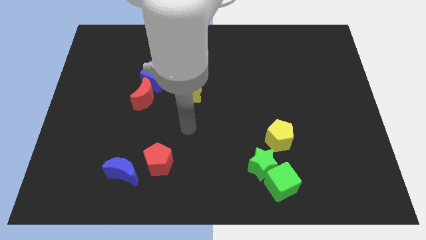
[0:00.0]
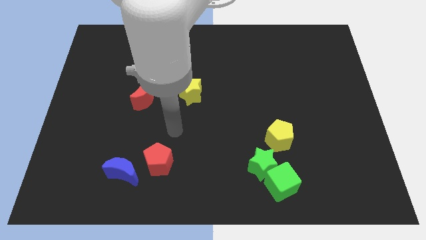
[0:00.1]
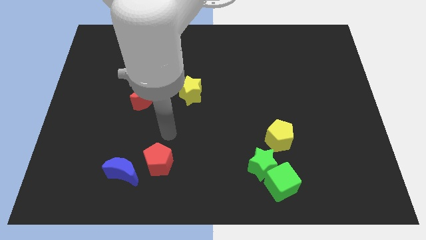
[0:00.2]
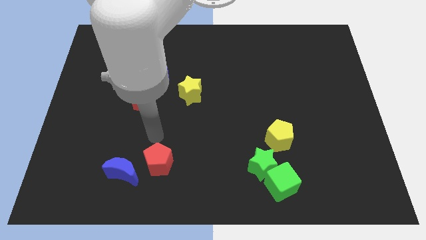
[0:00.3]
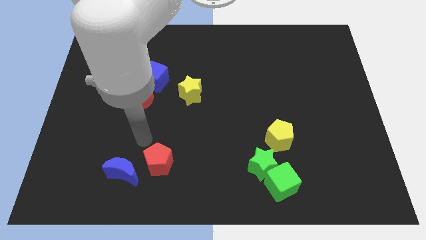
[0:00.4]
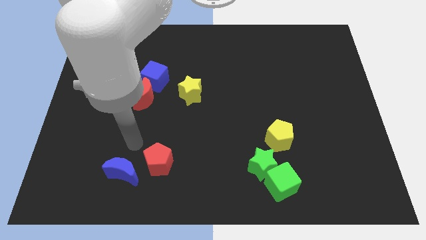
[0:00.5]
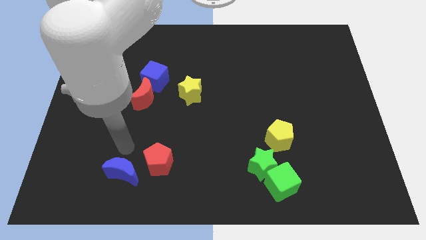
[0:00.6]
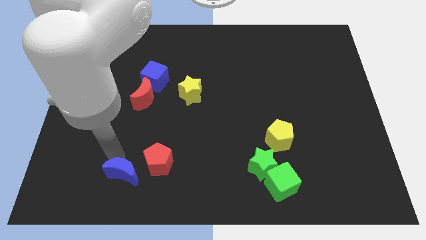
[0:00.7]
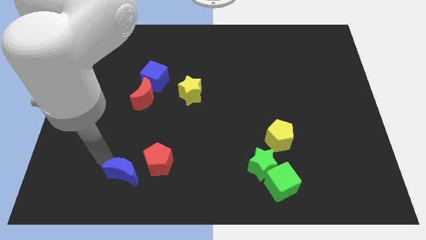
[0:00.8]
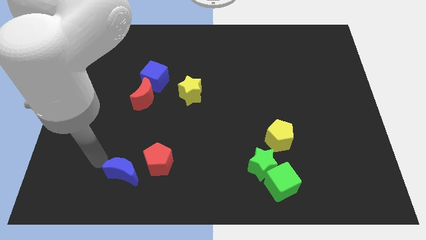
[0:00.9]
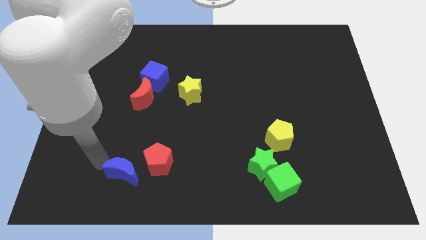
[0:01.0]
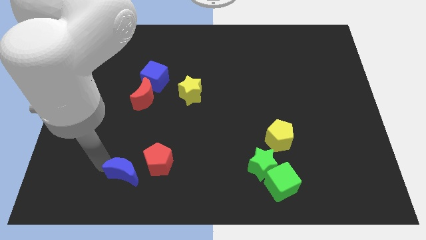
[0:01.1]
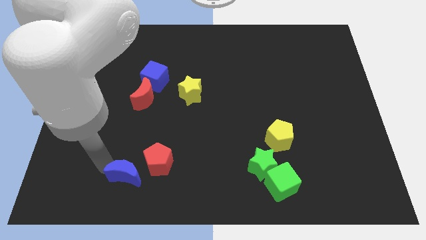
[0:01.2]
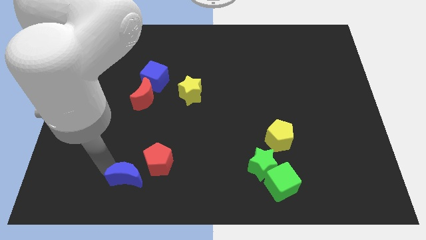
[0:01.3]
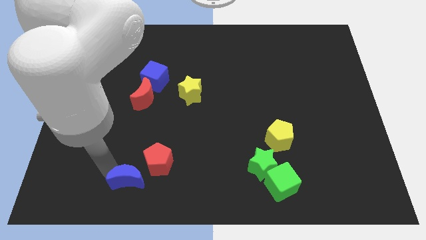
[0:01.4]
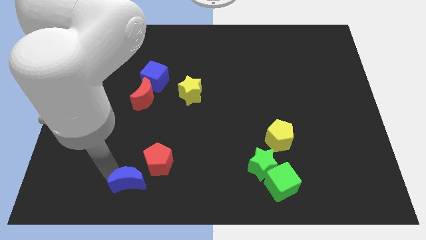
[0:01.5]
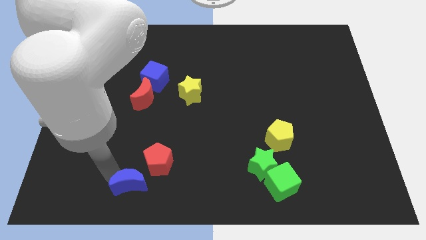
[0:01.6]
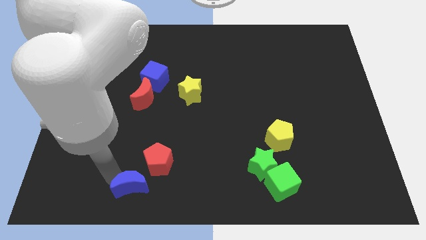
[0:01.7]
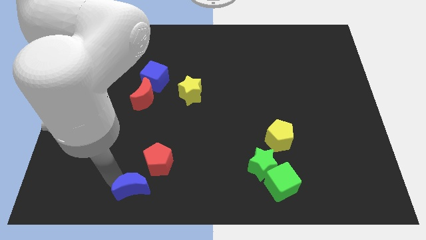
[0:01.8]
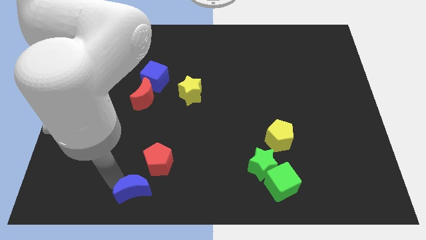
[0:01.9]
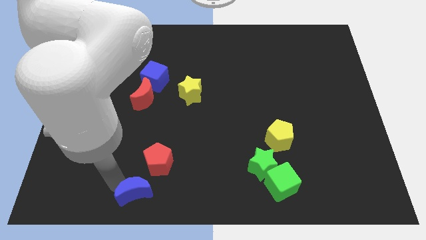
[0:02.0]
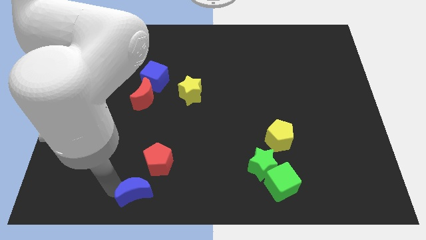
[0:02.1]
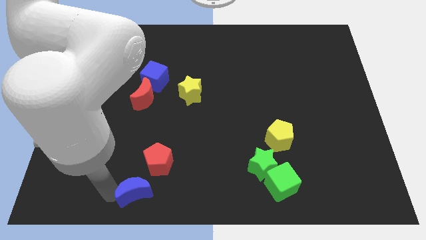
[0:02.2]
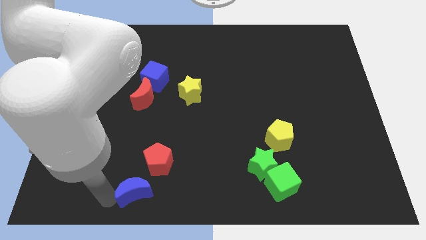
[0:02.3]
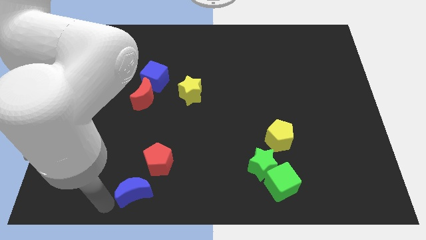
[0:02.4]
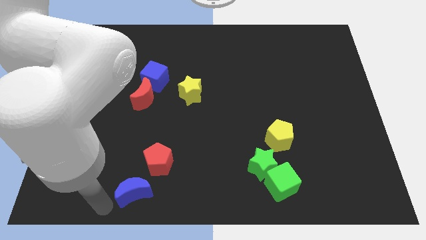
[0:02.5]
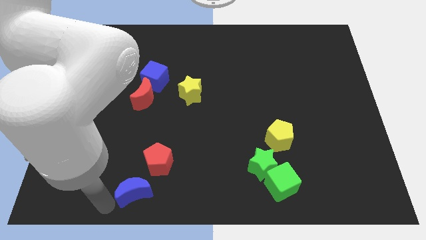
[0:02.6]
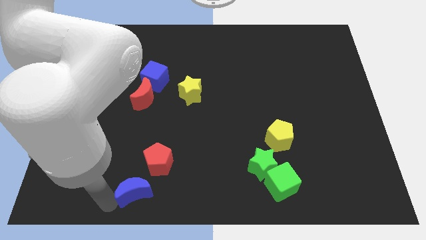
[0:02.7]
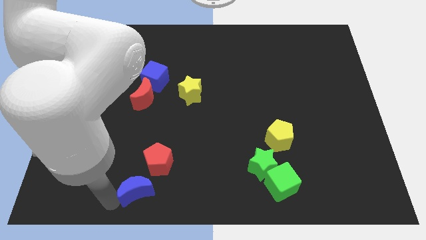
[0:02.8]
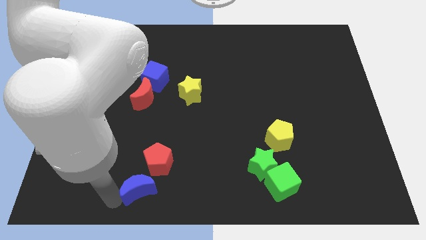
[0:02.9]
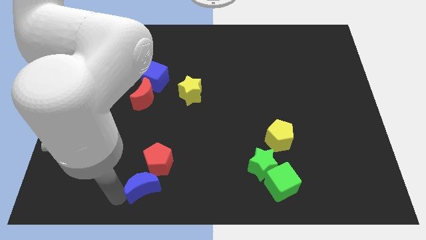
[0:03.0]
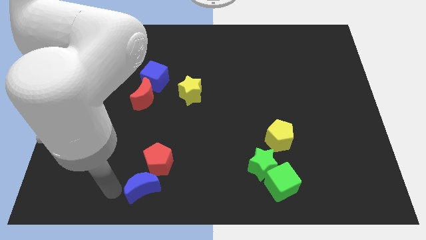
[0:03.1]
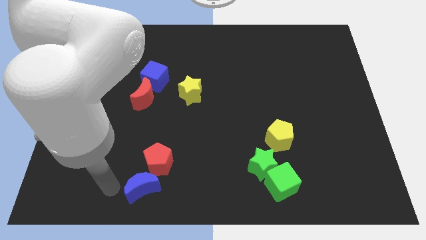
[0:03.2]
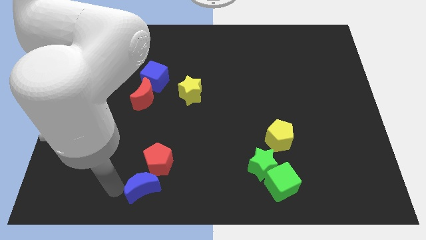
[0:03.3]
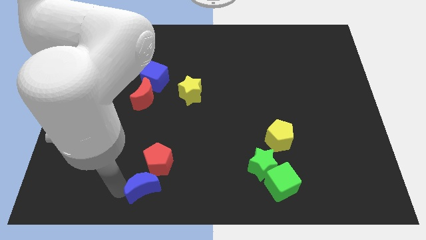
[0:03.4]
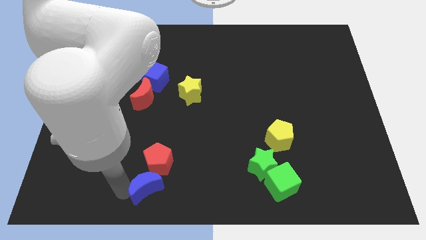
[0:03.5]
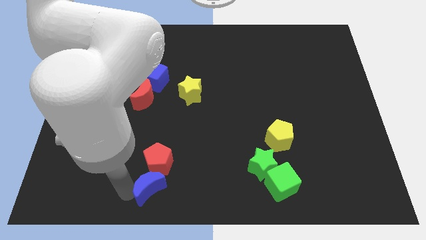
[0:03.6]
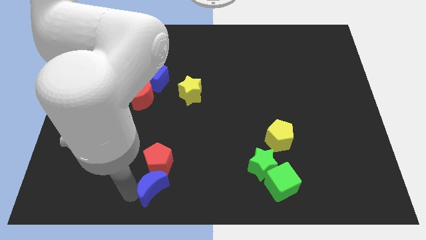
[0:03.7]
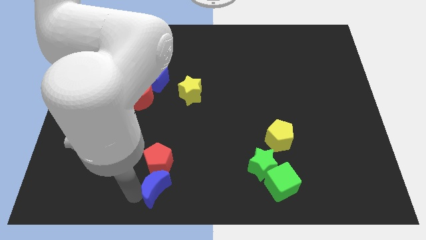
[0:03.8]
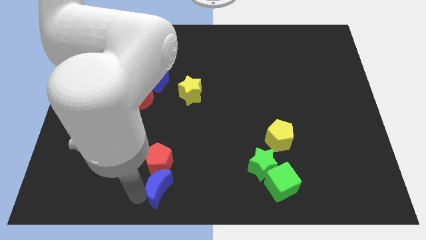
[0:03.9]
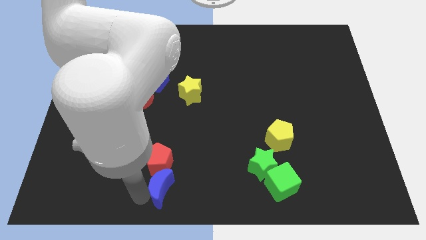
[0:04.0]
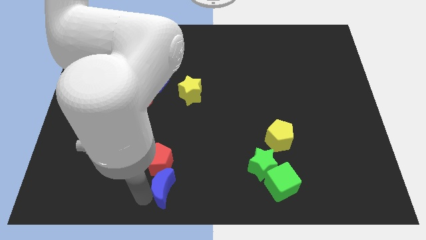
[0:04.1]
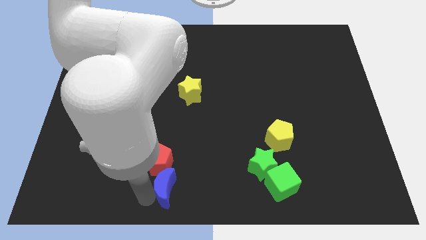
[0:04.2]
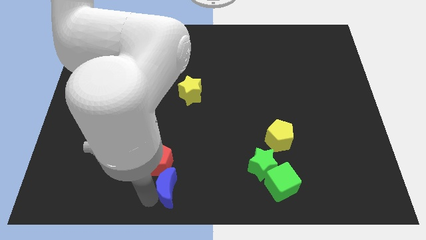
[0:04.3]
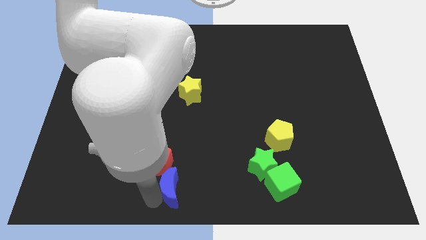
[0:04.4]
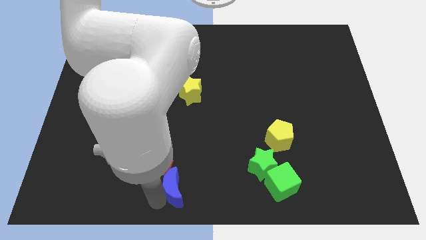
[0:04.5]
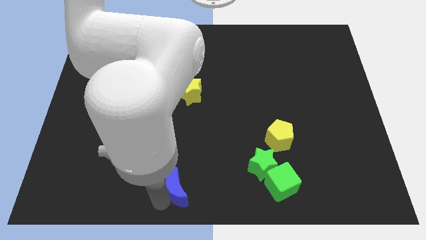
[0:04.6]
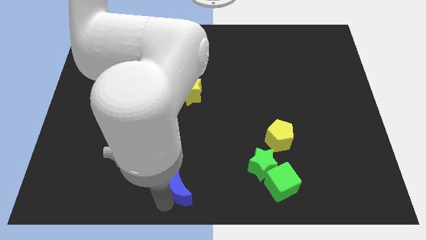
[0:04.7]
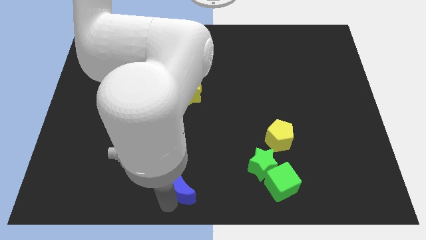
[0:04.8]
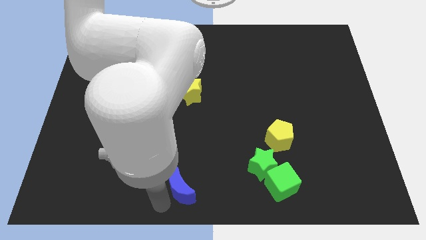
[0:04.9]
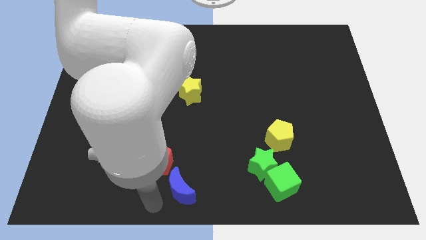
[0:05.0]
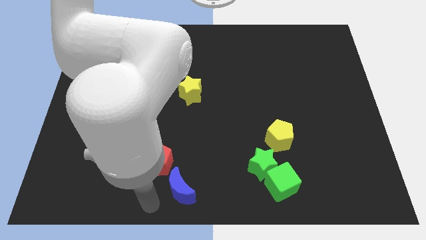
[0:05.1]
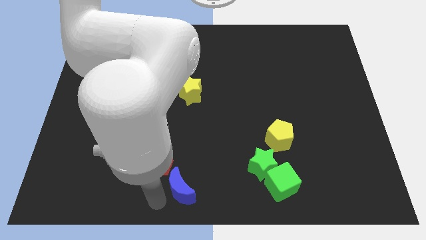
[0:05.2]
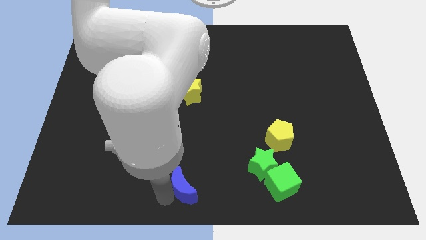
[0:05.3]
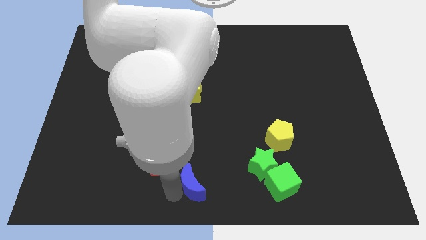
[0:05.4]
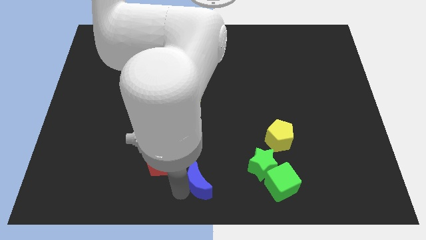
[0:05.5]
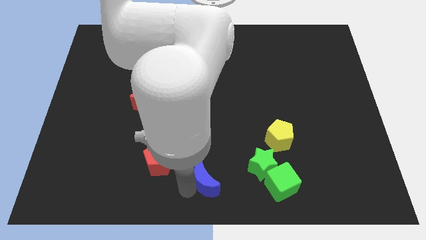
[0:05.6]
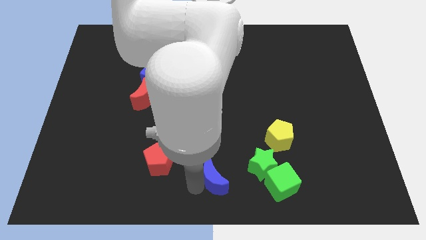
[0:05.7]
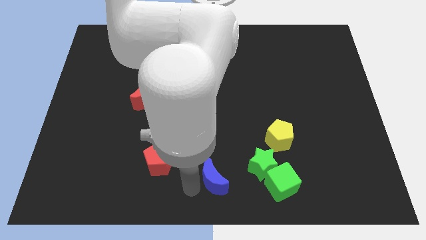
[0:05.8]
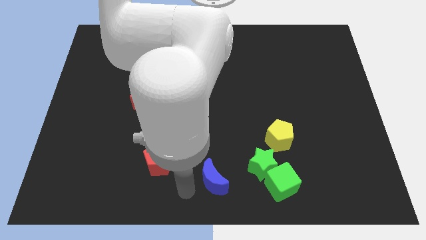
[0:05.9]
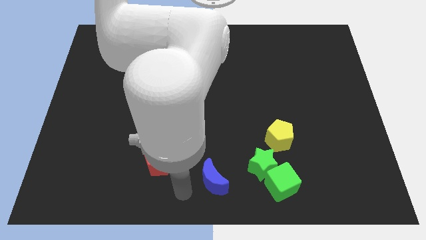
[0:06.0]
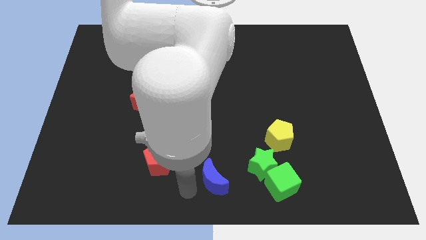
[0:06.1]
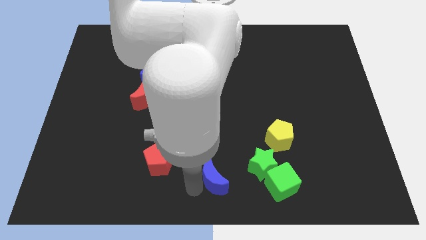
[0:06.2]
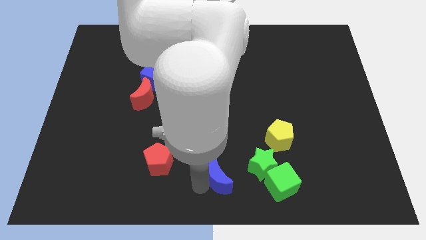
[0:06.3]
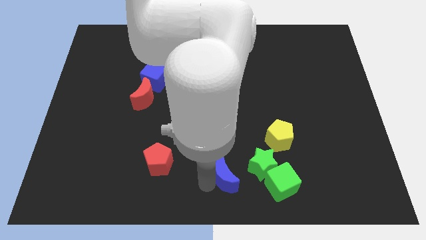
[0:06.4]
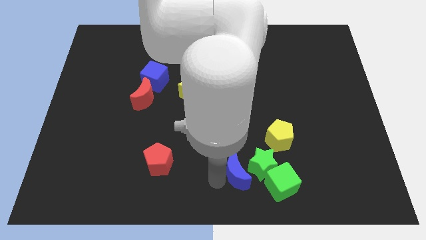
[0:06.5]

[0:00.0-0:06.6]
put the blue moon next to the green star

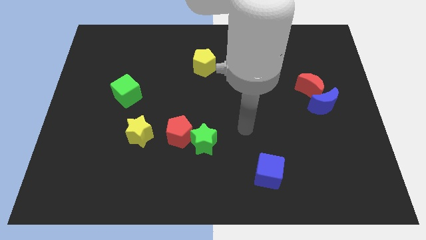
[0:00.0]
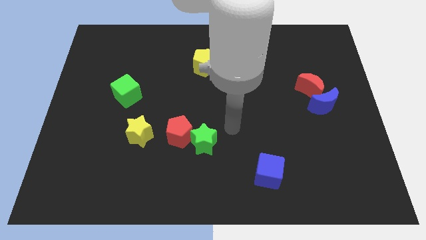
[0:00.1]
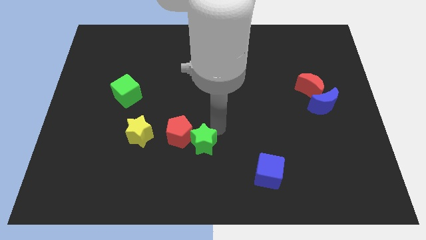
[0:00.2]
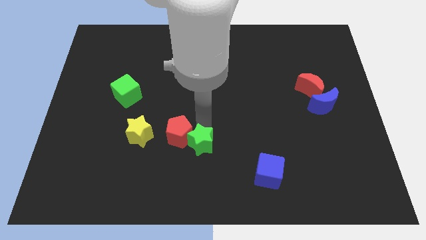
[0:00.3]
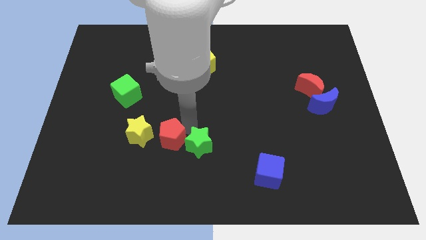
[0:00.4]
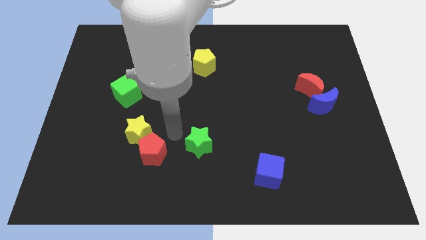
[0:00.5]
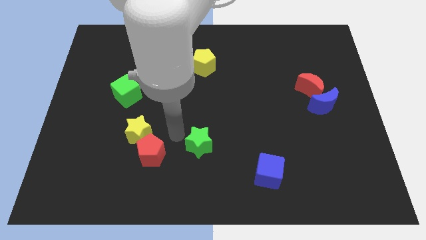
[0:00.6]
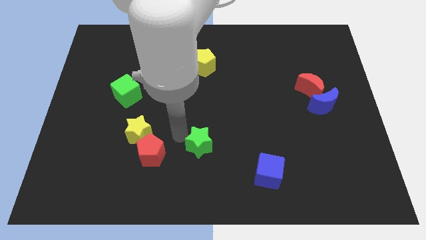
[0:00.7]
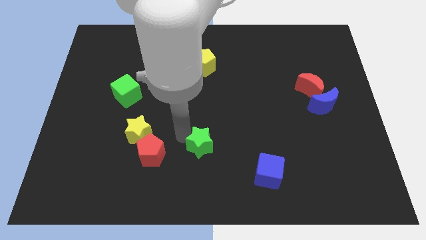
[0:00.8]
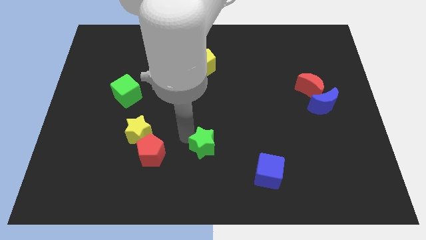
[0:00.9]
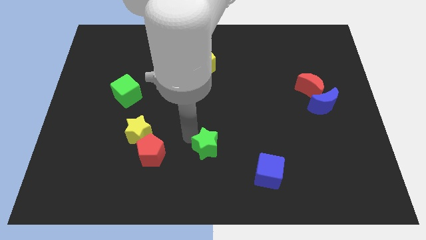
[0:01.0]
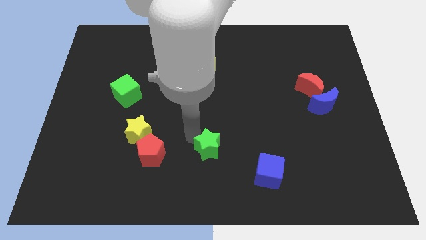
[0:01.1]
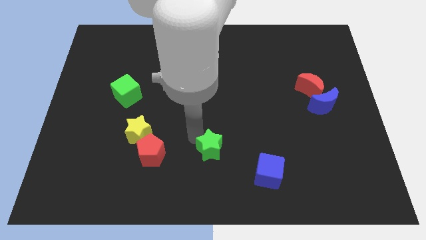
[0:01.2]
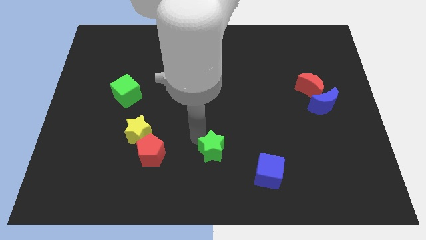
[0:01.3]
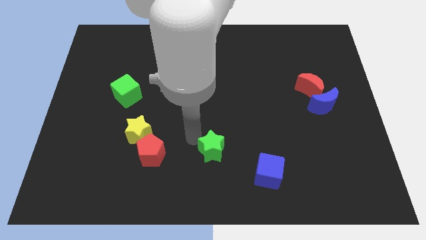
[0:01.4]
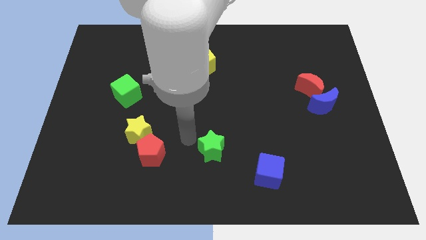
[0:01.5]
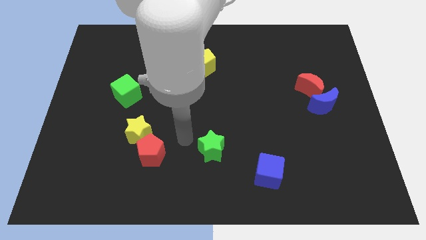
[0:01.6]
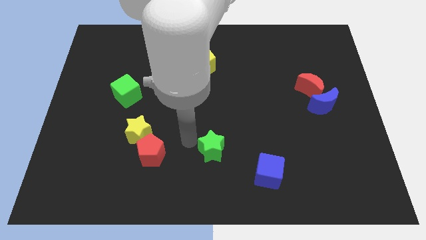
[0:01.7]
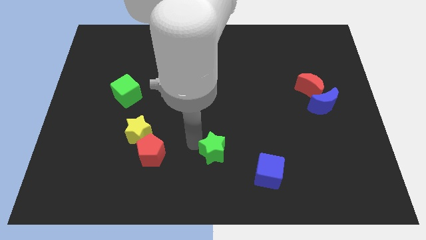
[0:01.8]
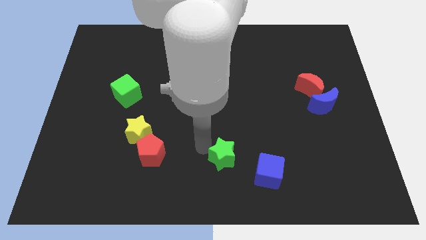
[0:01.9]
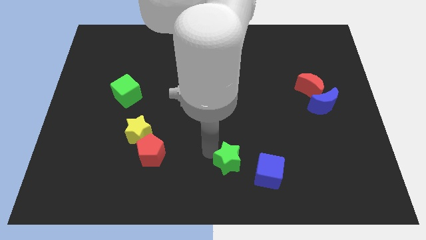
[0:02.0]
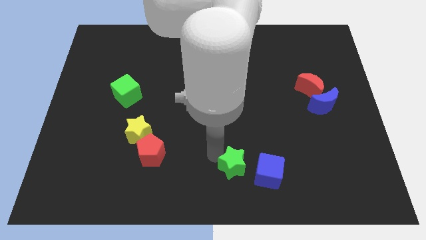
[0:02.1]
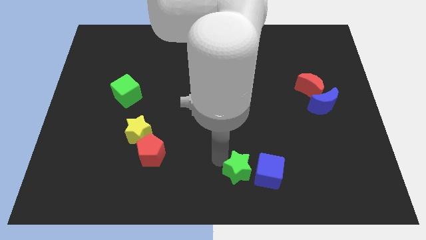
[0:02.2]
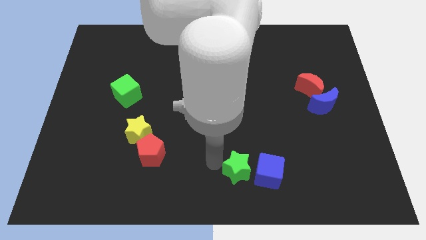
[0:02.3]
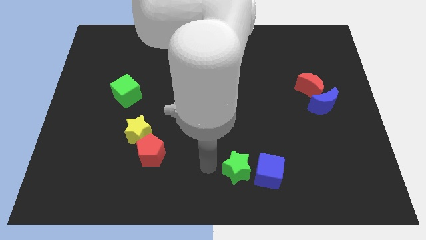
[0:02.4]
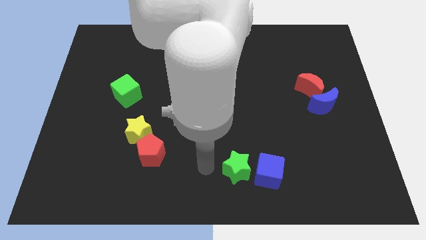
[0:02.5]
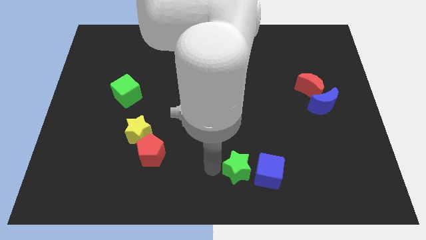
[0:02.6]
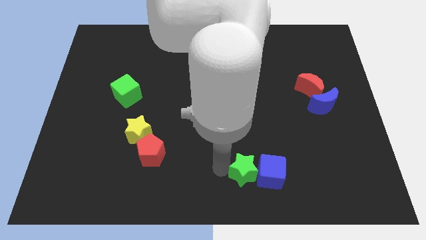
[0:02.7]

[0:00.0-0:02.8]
slide the green star close to the blue cube
